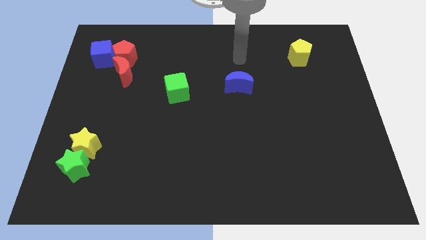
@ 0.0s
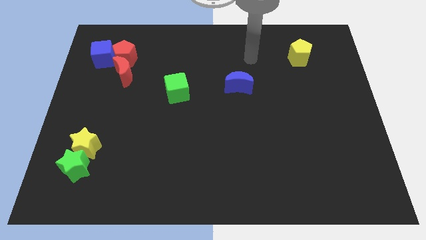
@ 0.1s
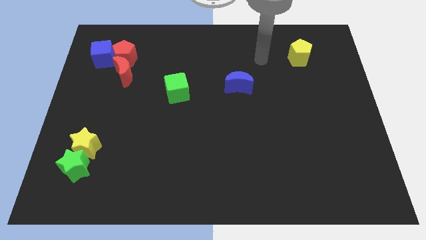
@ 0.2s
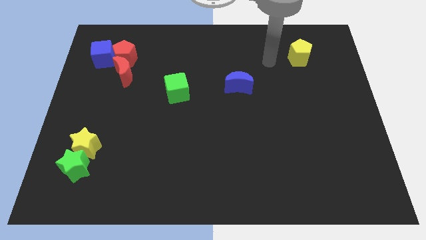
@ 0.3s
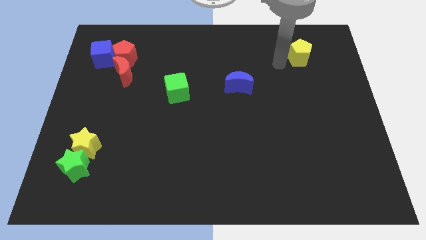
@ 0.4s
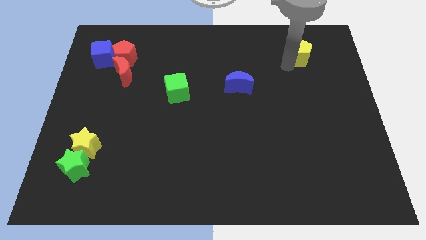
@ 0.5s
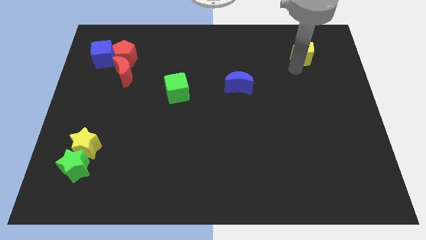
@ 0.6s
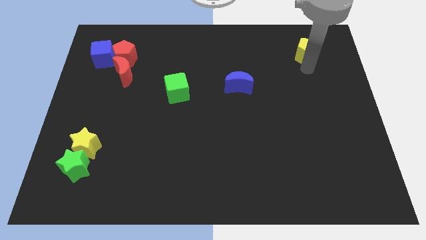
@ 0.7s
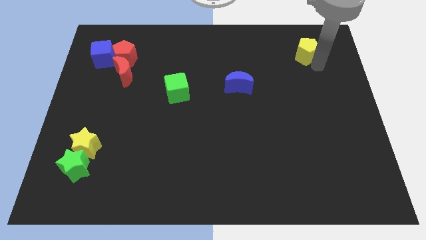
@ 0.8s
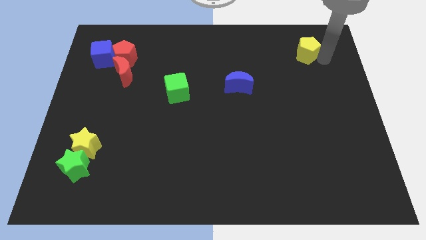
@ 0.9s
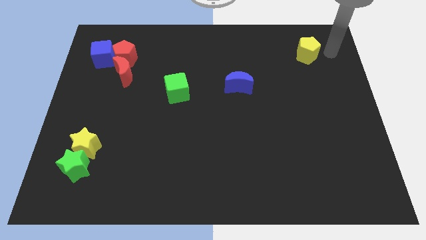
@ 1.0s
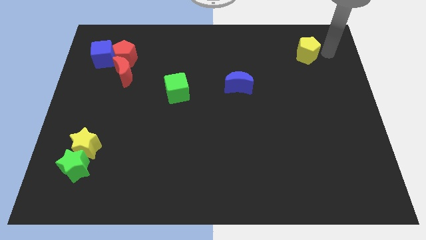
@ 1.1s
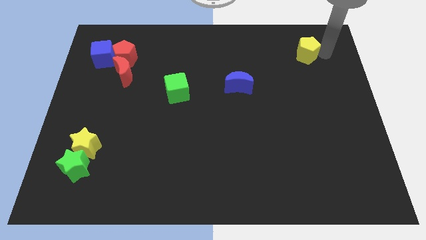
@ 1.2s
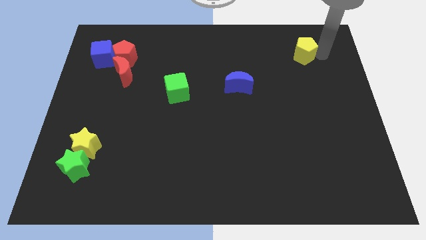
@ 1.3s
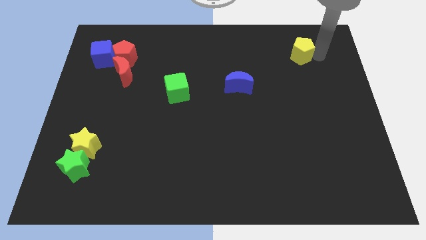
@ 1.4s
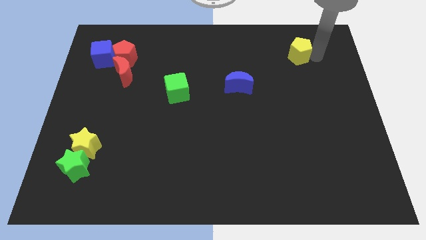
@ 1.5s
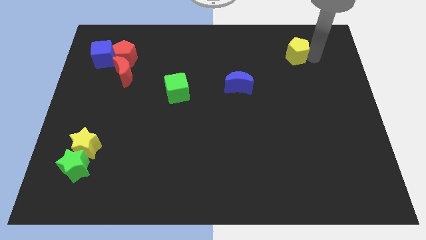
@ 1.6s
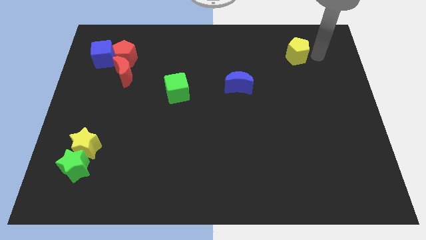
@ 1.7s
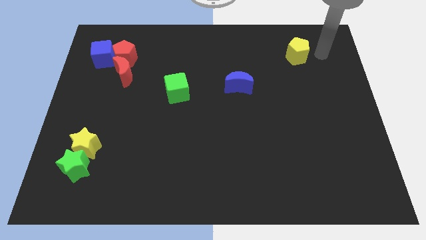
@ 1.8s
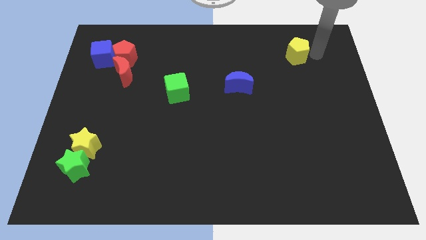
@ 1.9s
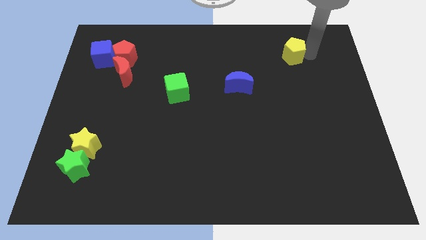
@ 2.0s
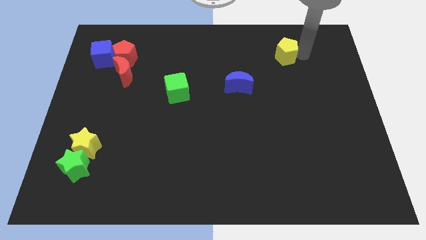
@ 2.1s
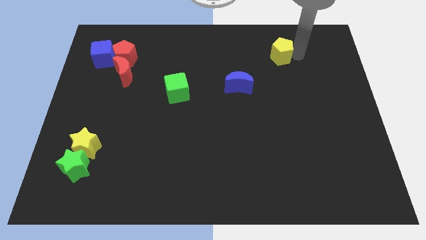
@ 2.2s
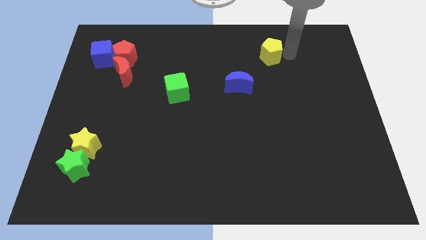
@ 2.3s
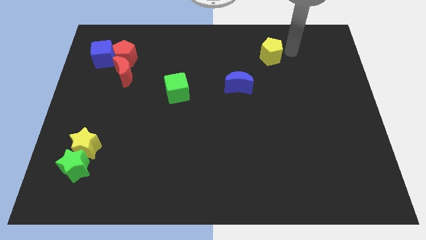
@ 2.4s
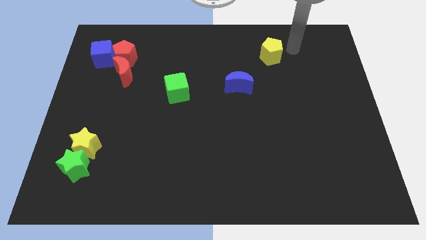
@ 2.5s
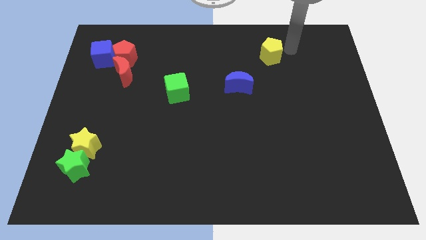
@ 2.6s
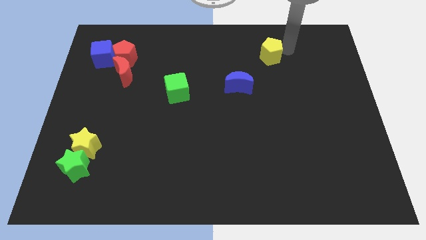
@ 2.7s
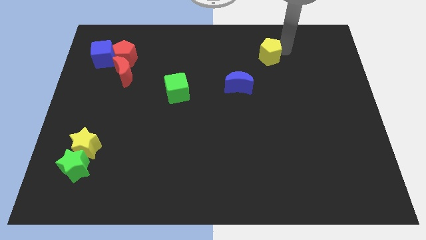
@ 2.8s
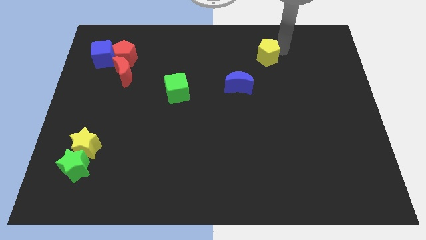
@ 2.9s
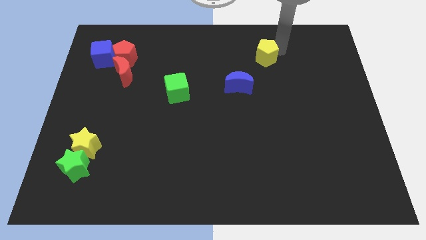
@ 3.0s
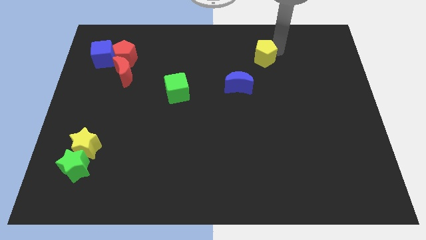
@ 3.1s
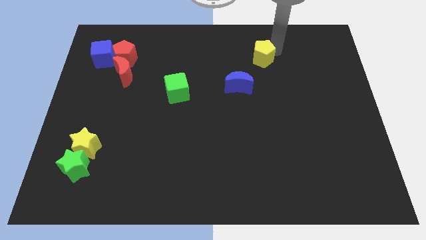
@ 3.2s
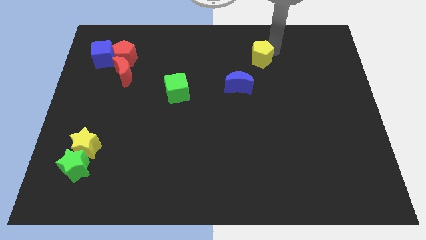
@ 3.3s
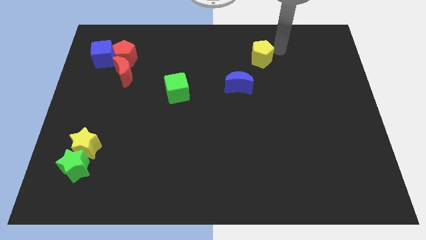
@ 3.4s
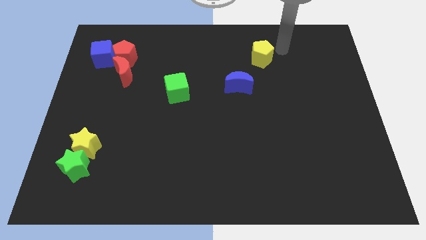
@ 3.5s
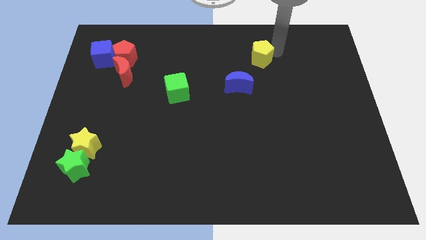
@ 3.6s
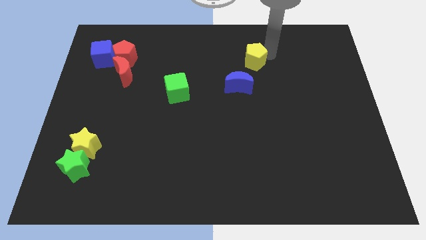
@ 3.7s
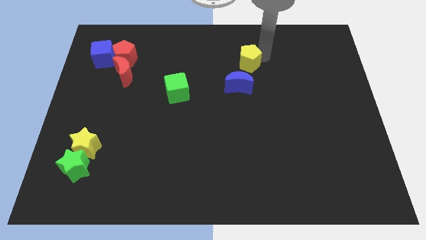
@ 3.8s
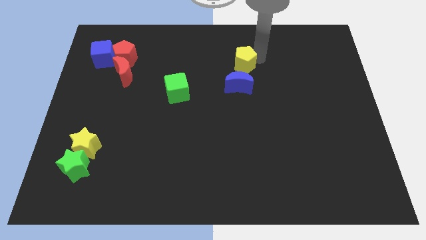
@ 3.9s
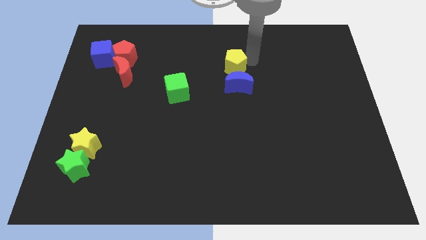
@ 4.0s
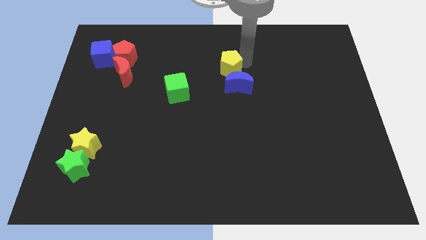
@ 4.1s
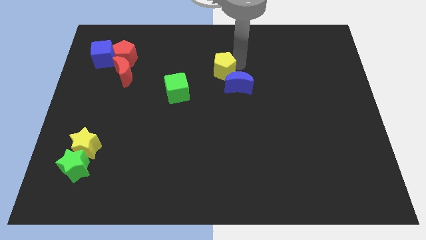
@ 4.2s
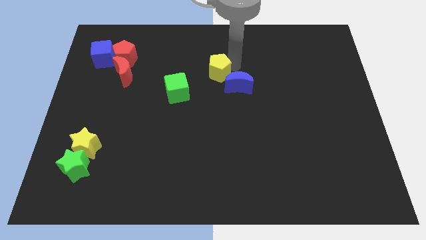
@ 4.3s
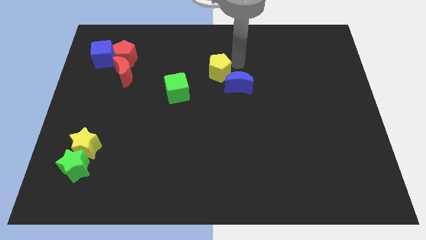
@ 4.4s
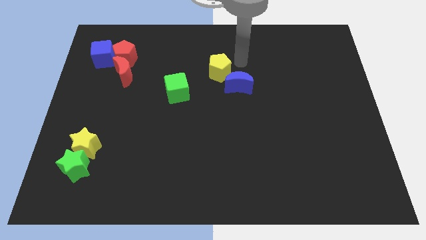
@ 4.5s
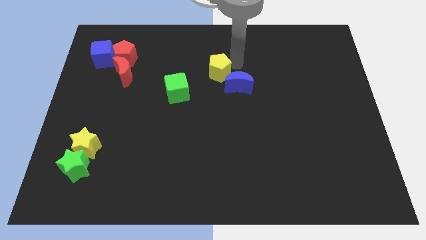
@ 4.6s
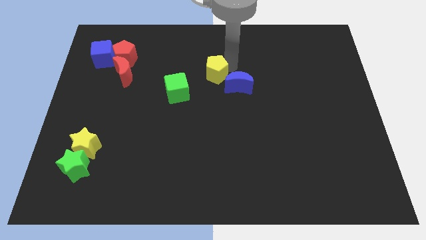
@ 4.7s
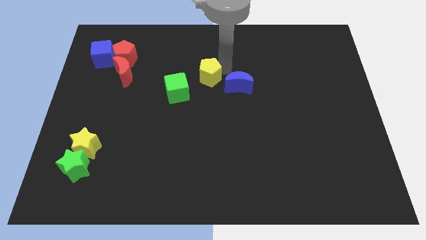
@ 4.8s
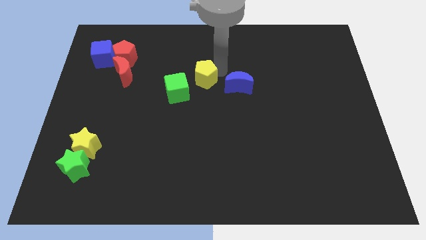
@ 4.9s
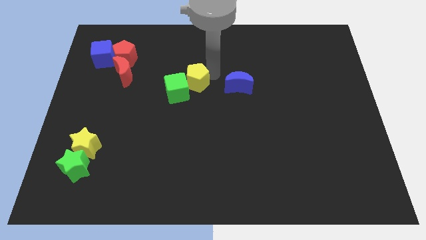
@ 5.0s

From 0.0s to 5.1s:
push the yellow pentagon close to the green cube

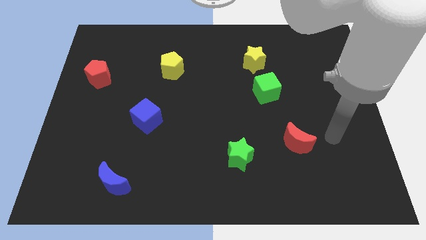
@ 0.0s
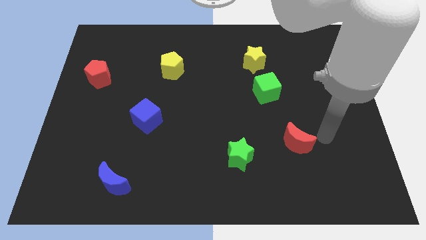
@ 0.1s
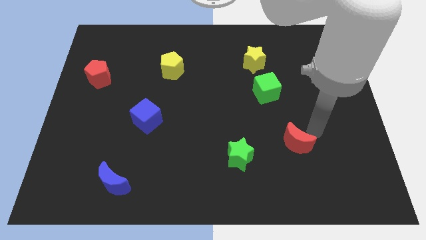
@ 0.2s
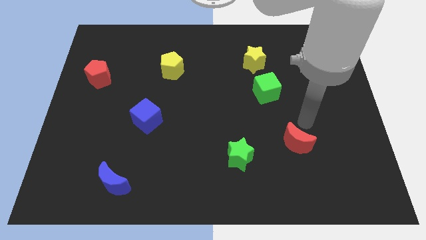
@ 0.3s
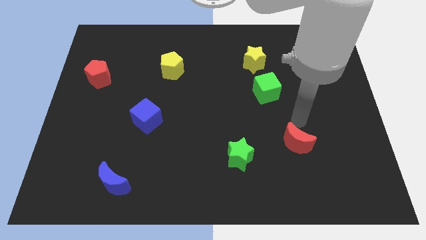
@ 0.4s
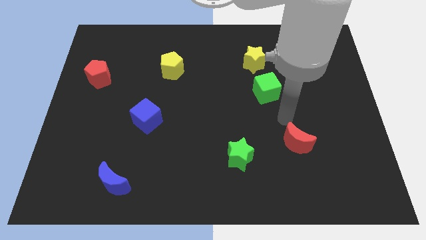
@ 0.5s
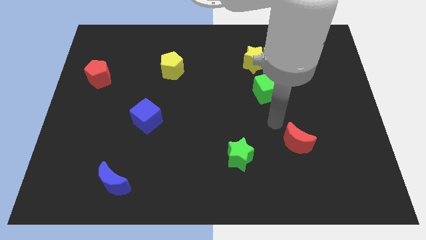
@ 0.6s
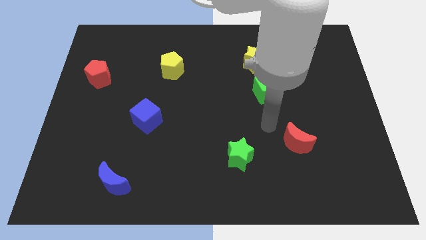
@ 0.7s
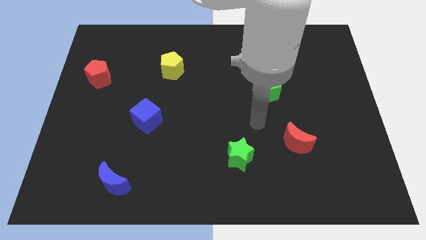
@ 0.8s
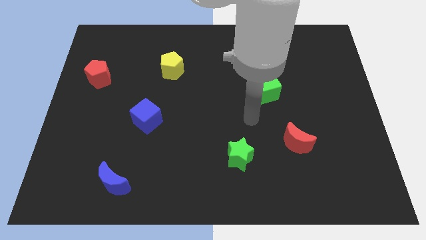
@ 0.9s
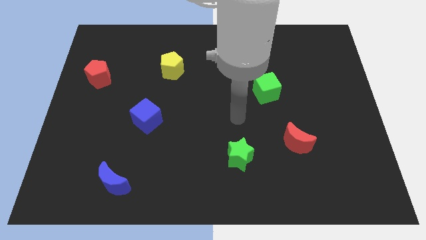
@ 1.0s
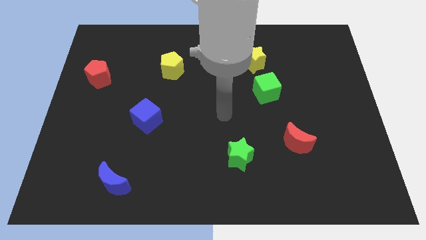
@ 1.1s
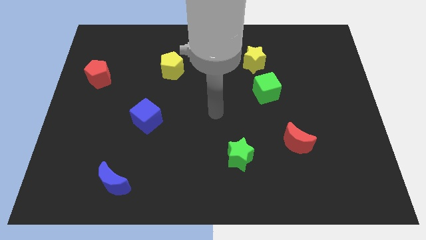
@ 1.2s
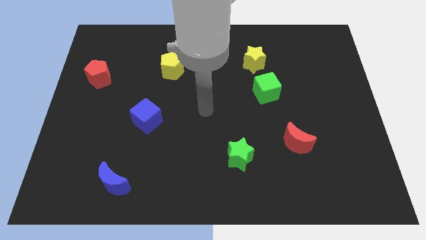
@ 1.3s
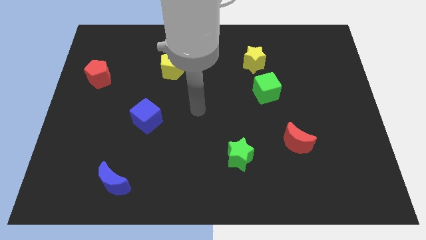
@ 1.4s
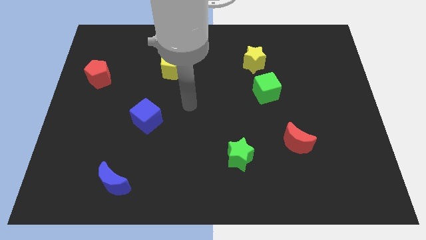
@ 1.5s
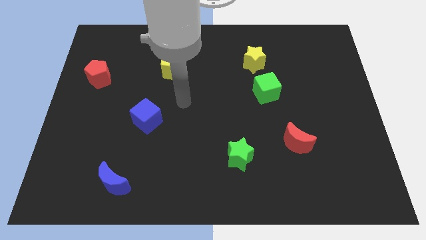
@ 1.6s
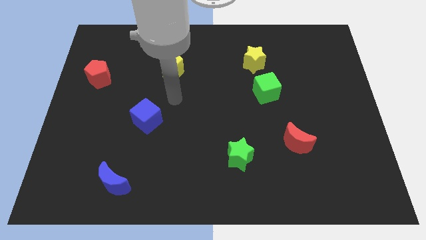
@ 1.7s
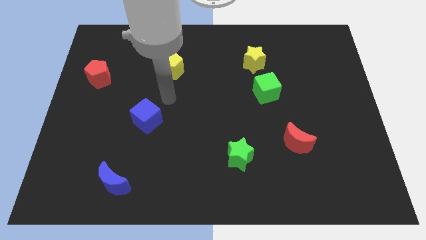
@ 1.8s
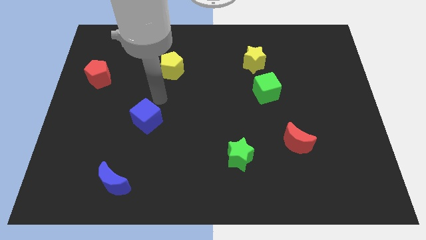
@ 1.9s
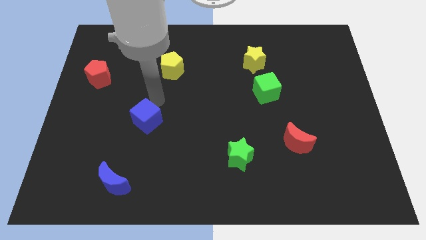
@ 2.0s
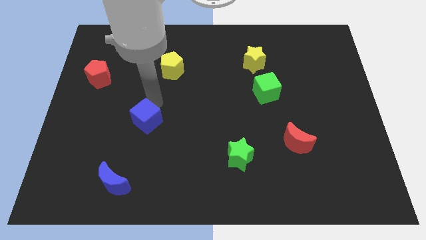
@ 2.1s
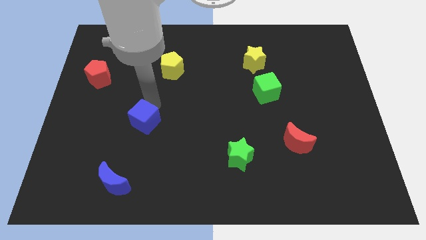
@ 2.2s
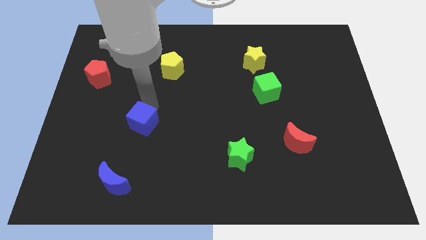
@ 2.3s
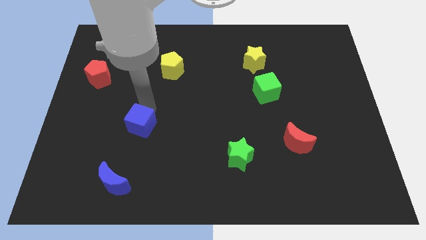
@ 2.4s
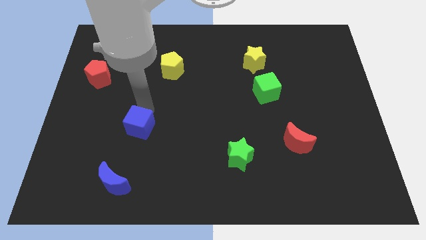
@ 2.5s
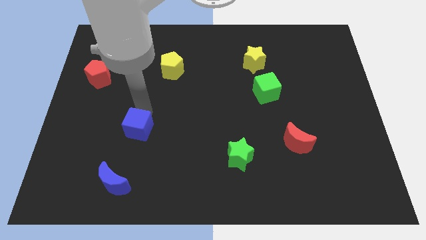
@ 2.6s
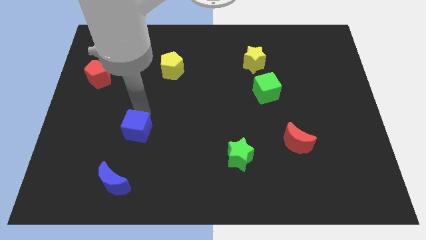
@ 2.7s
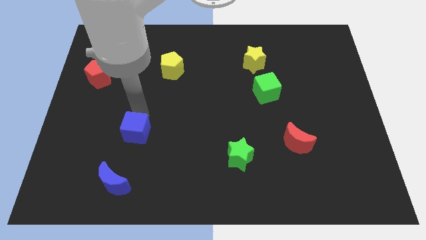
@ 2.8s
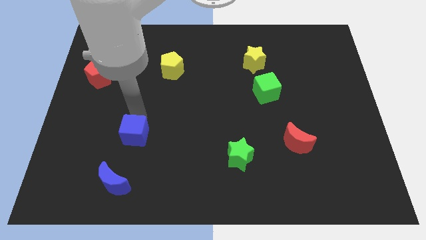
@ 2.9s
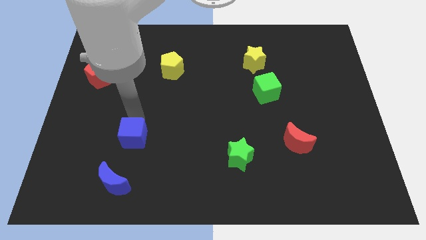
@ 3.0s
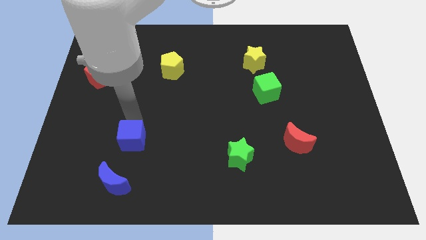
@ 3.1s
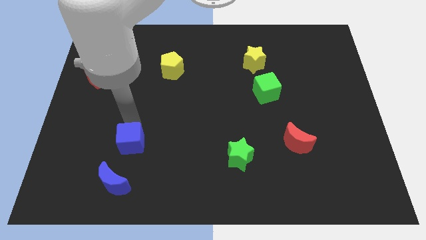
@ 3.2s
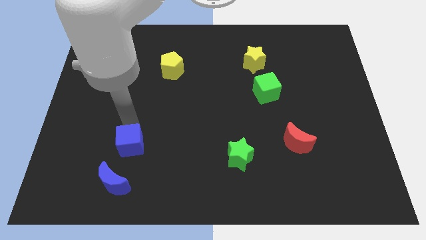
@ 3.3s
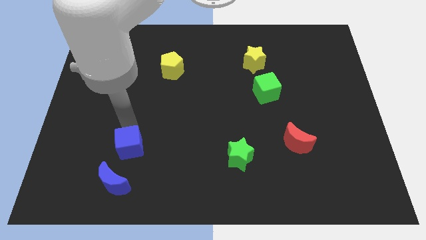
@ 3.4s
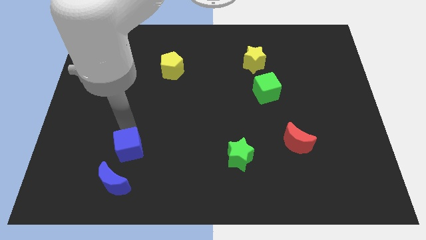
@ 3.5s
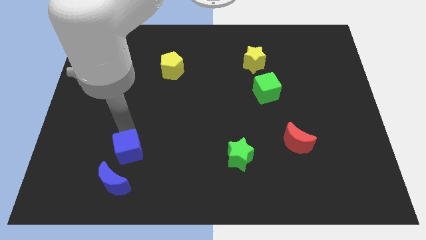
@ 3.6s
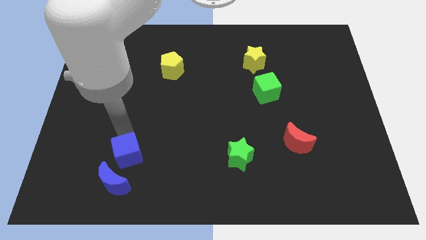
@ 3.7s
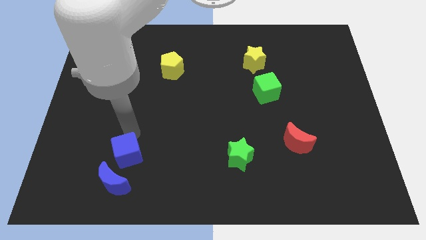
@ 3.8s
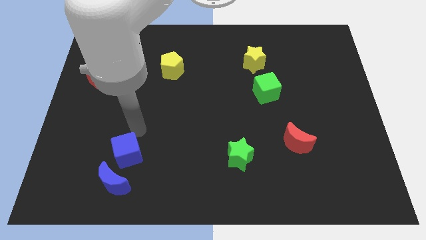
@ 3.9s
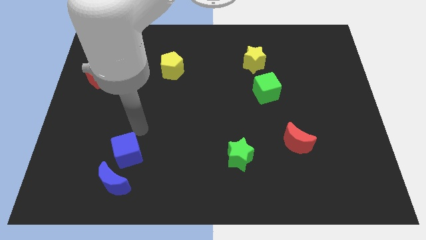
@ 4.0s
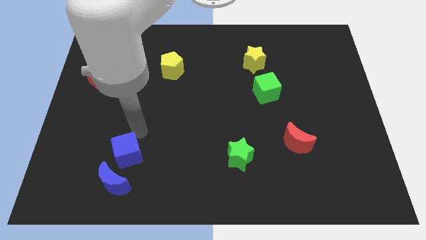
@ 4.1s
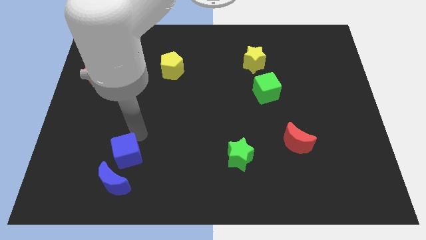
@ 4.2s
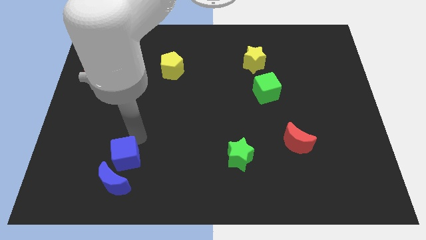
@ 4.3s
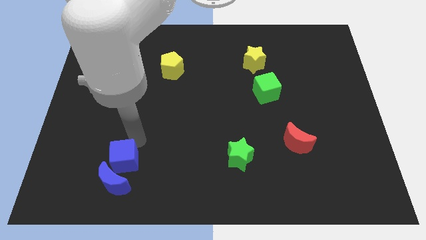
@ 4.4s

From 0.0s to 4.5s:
slide the blue cube towards the blue moon
